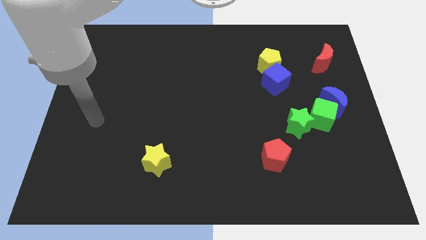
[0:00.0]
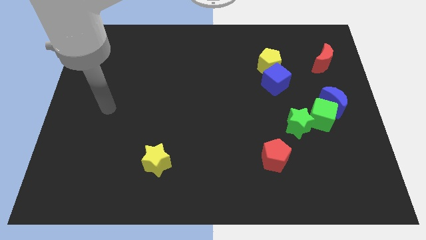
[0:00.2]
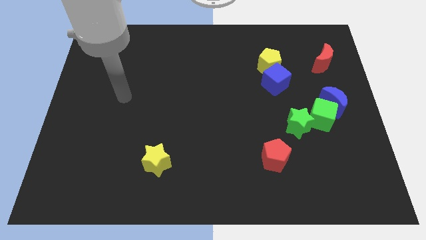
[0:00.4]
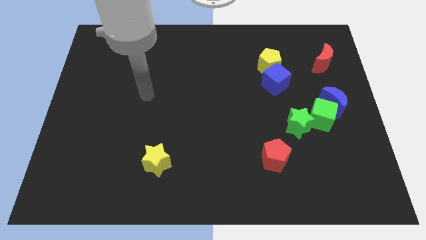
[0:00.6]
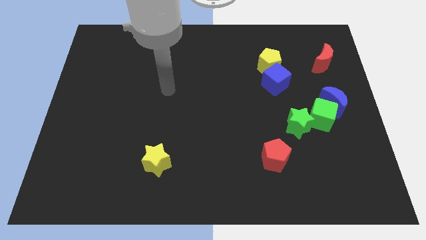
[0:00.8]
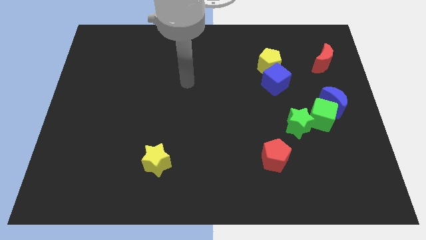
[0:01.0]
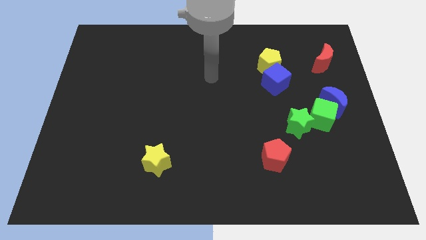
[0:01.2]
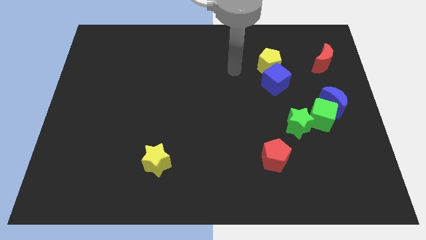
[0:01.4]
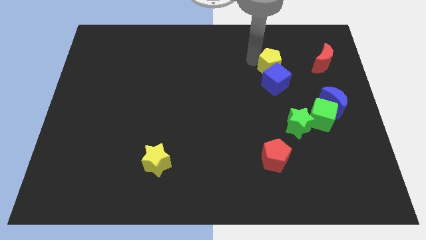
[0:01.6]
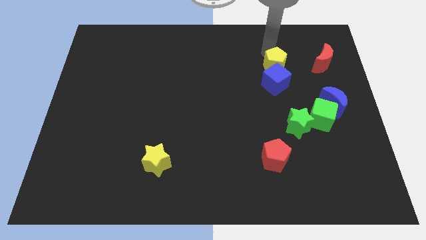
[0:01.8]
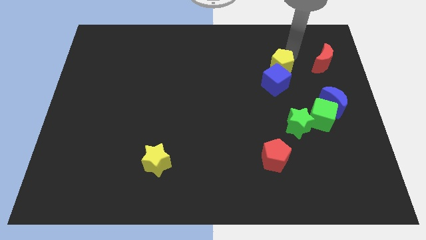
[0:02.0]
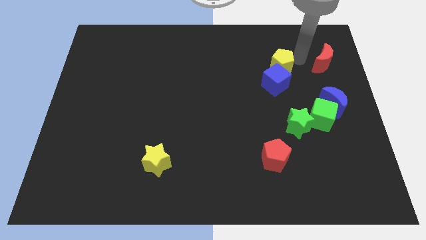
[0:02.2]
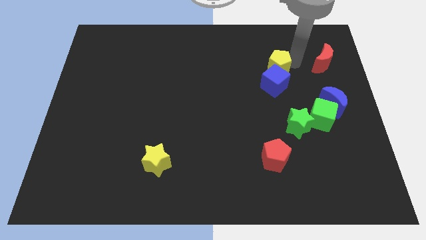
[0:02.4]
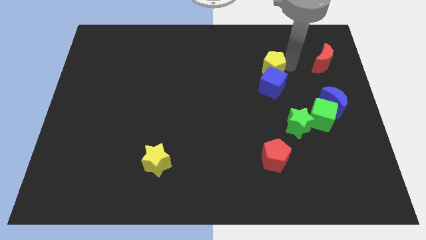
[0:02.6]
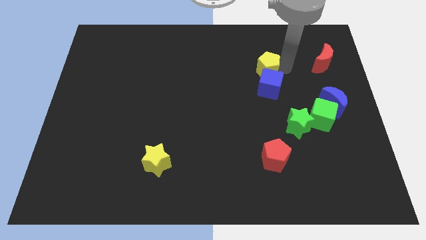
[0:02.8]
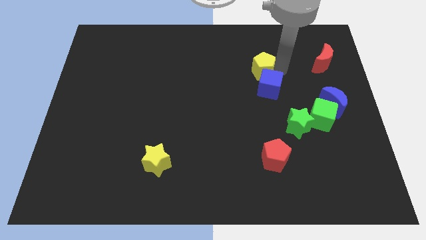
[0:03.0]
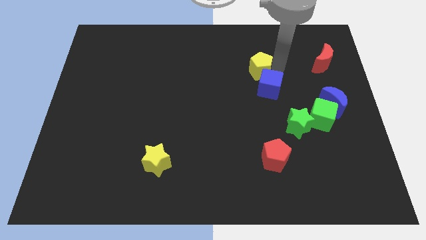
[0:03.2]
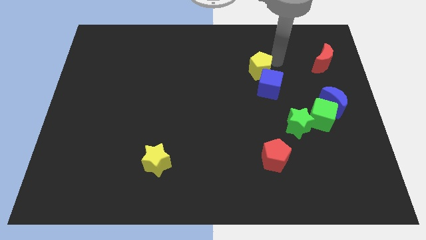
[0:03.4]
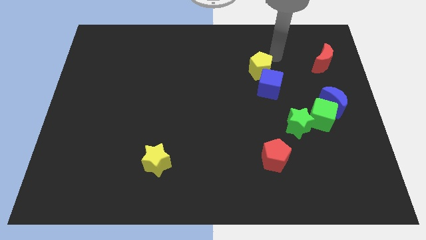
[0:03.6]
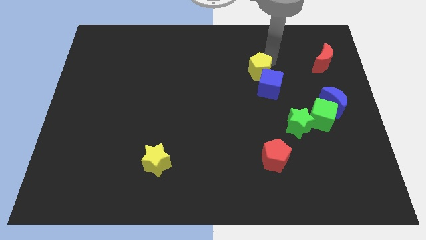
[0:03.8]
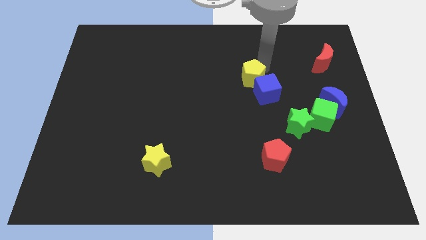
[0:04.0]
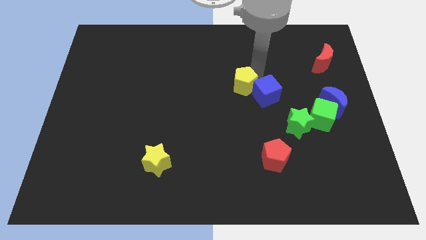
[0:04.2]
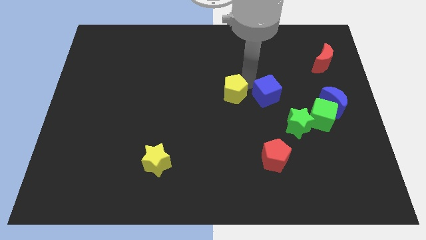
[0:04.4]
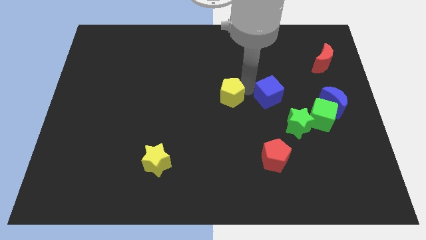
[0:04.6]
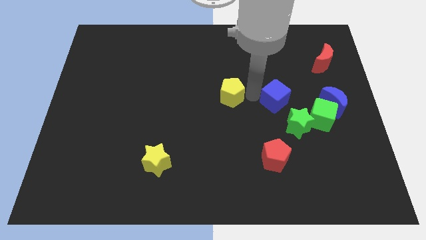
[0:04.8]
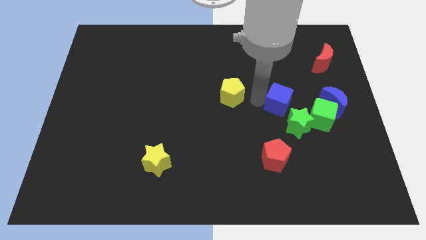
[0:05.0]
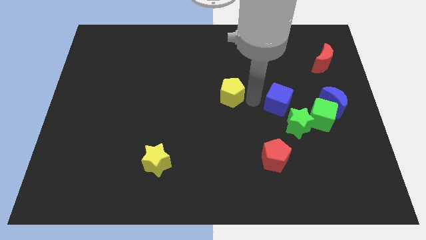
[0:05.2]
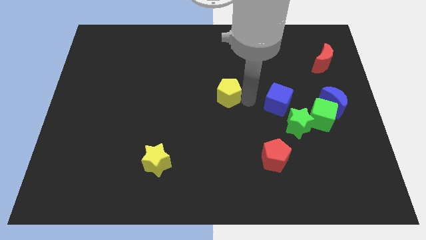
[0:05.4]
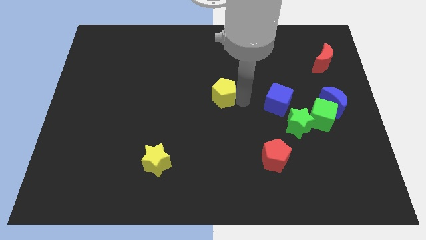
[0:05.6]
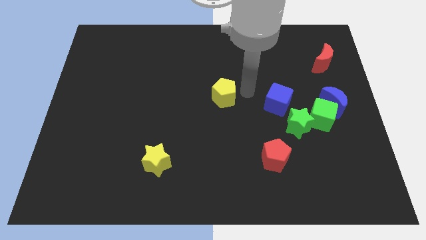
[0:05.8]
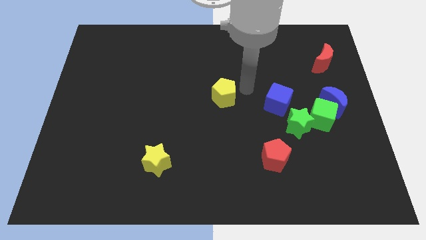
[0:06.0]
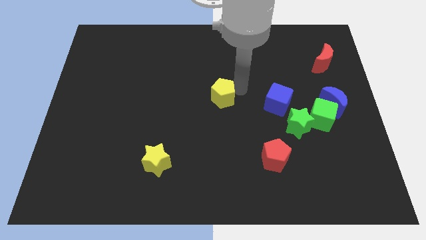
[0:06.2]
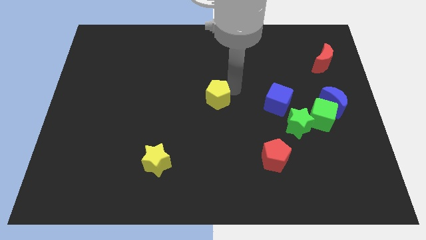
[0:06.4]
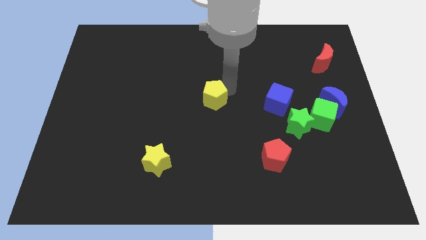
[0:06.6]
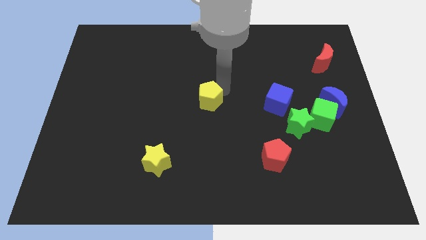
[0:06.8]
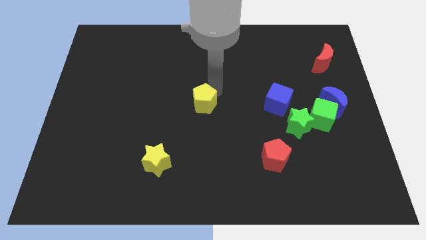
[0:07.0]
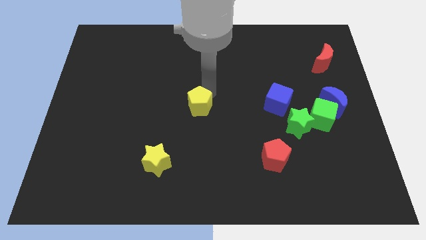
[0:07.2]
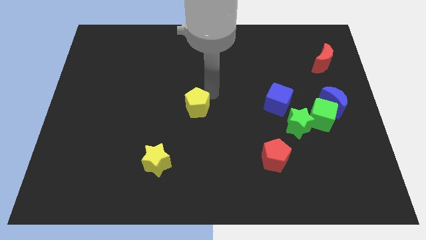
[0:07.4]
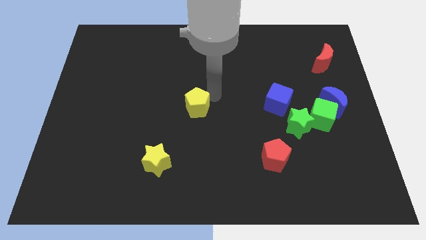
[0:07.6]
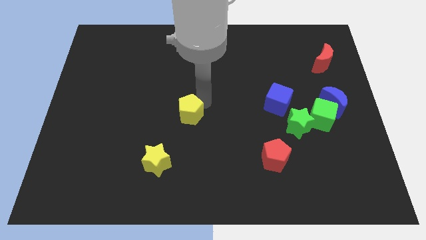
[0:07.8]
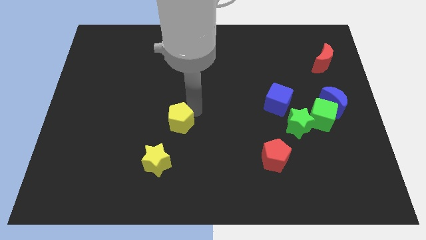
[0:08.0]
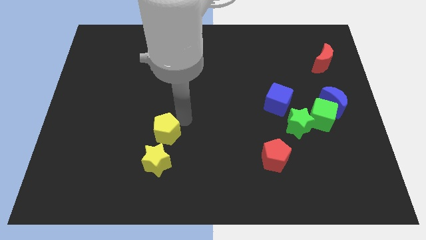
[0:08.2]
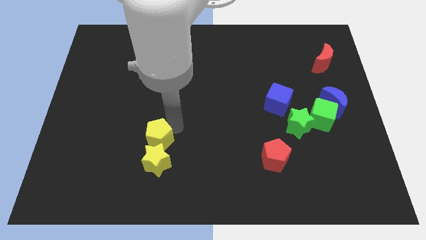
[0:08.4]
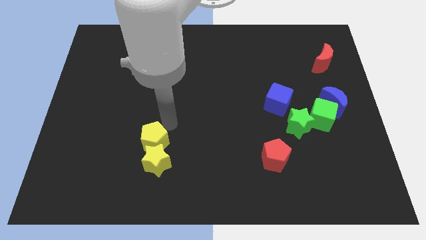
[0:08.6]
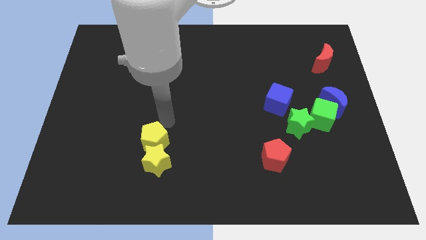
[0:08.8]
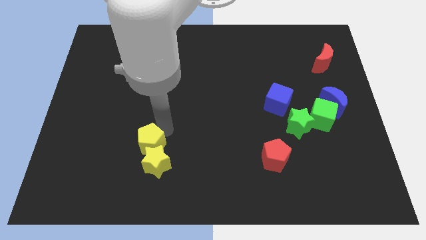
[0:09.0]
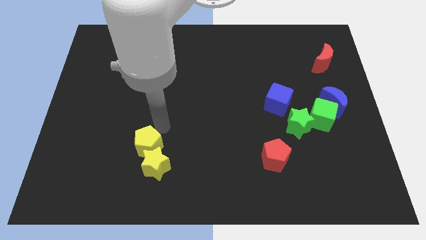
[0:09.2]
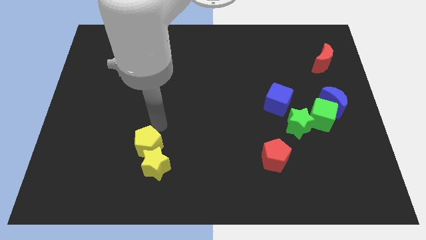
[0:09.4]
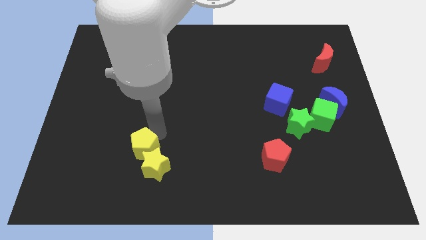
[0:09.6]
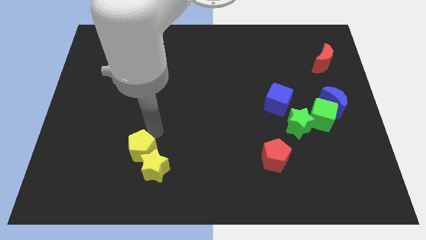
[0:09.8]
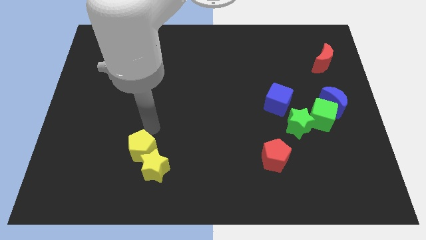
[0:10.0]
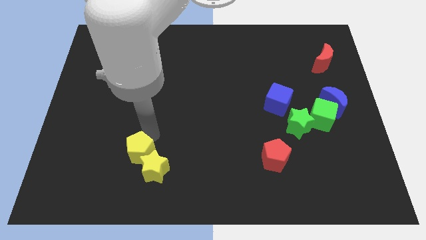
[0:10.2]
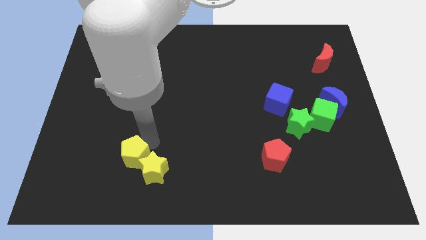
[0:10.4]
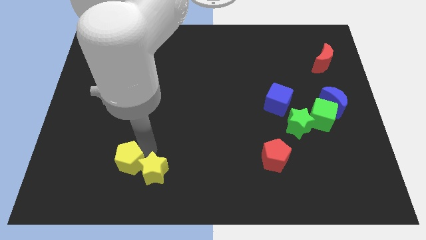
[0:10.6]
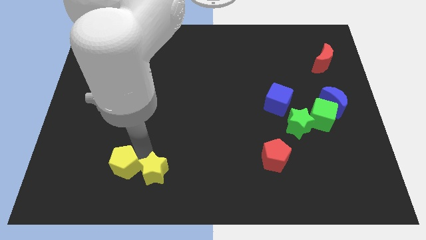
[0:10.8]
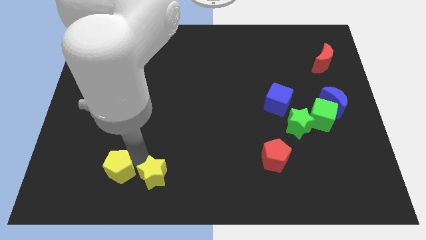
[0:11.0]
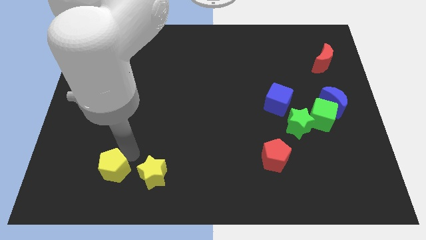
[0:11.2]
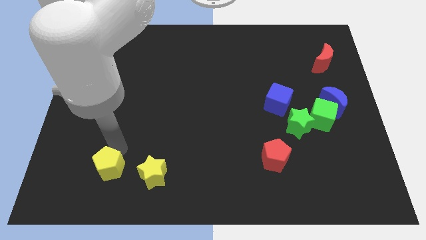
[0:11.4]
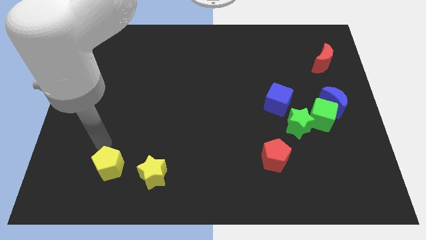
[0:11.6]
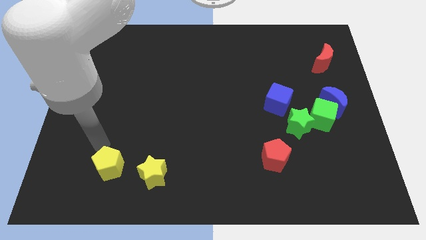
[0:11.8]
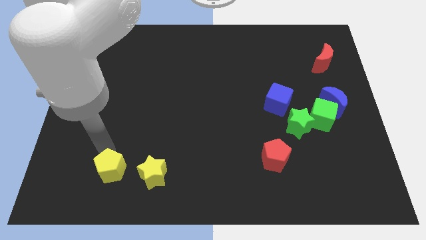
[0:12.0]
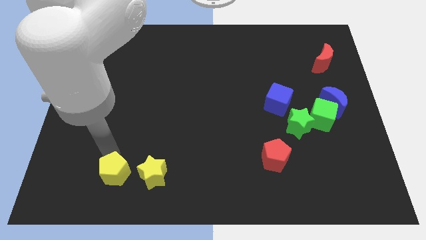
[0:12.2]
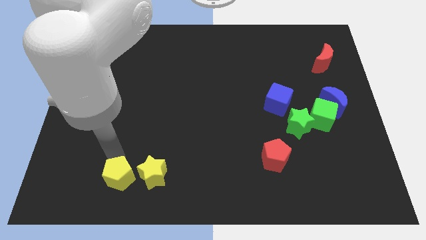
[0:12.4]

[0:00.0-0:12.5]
move the yellow pentagon to the bottom left side of the yellow star
